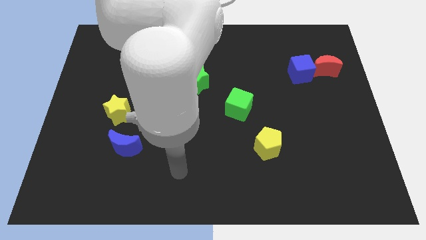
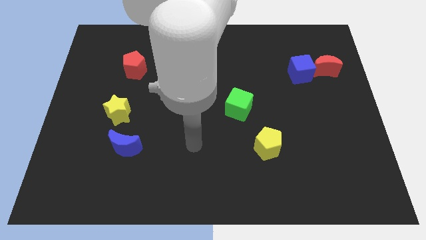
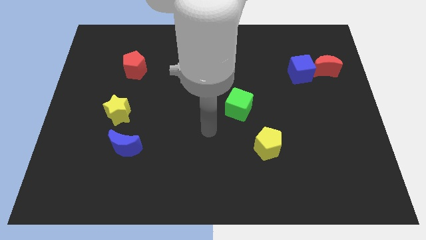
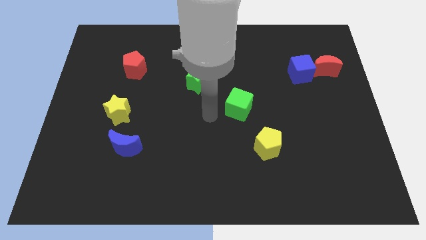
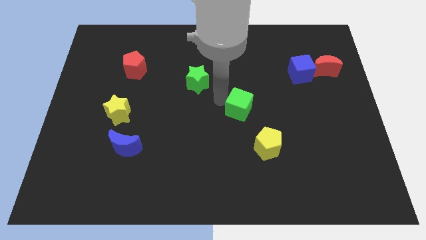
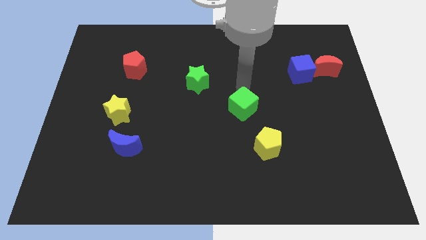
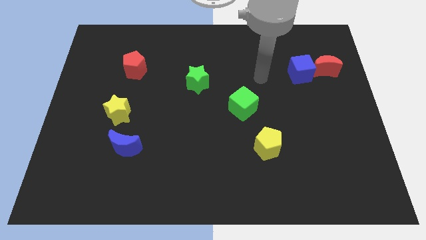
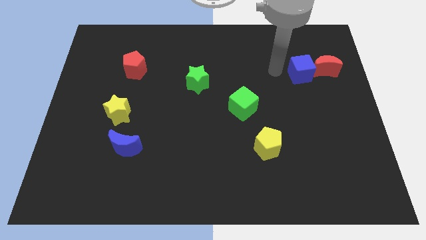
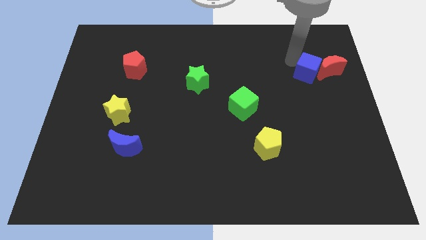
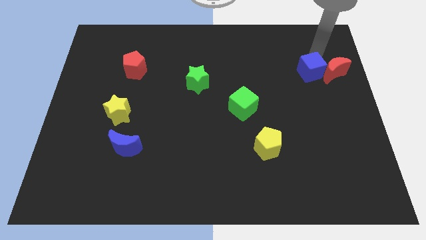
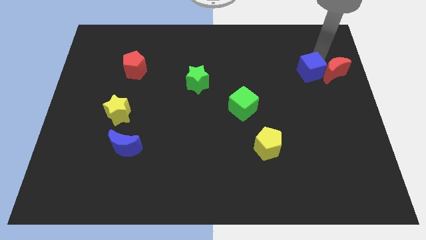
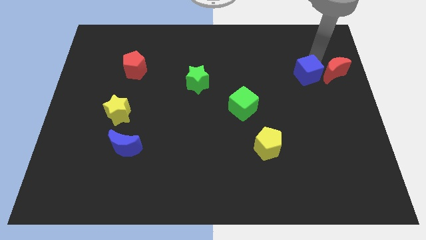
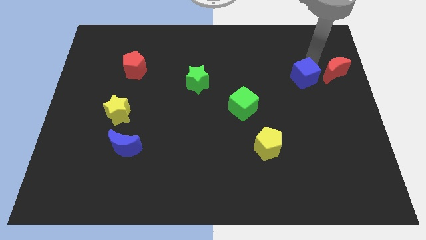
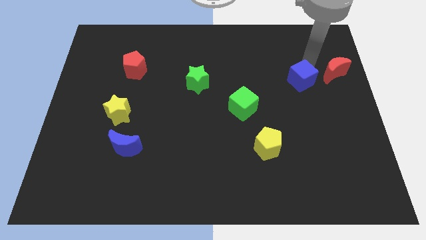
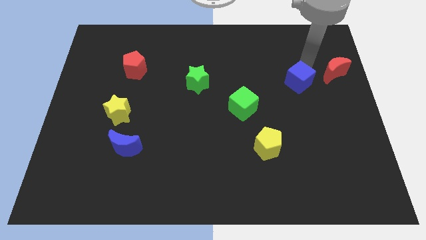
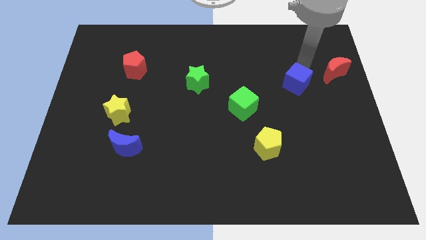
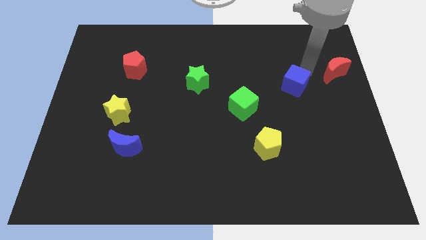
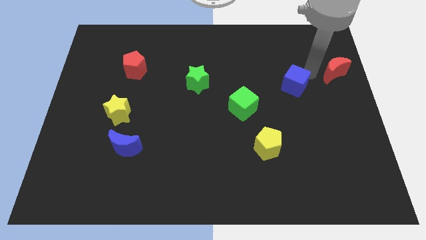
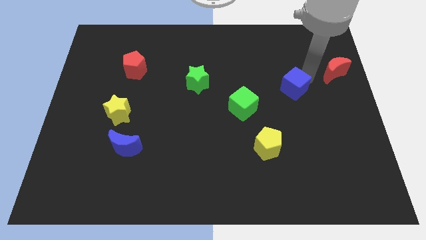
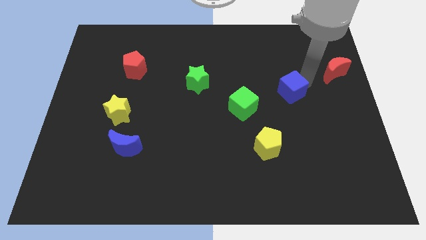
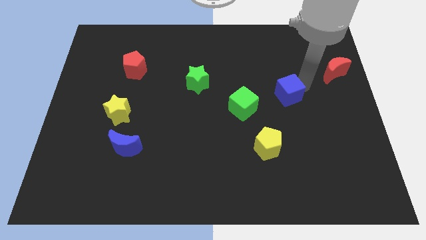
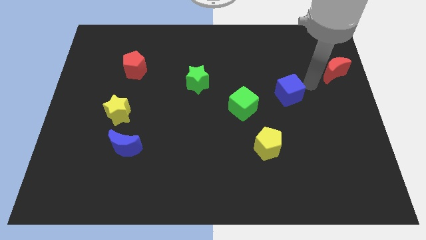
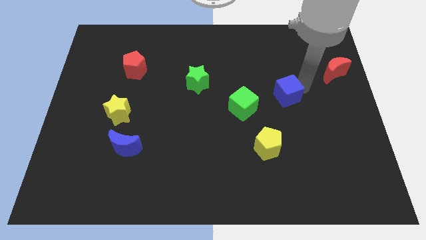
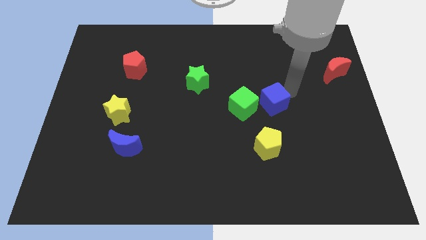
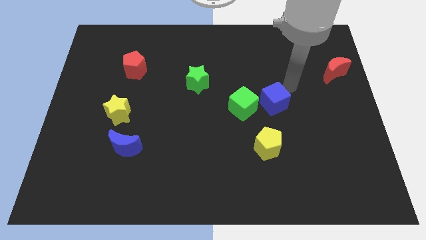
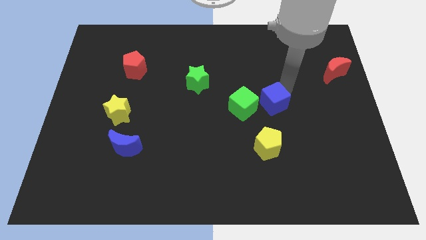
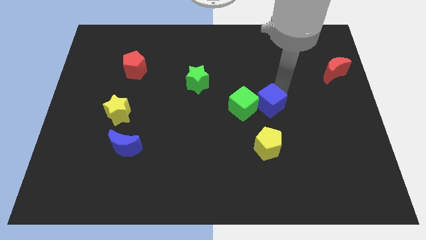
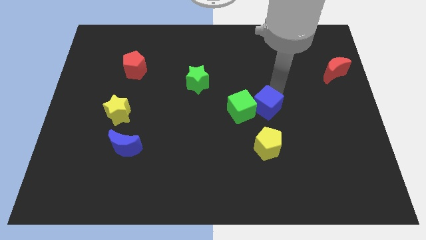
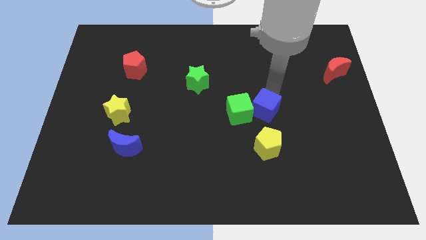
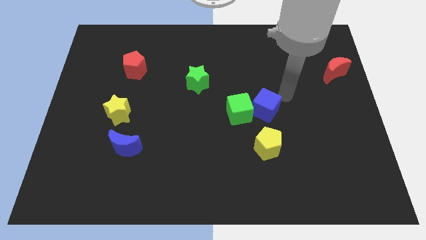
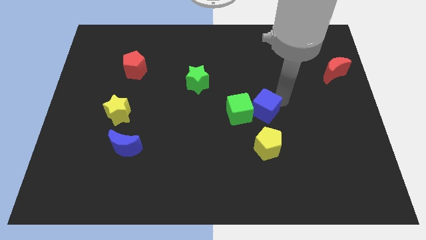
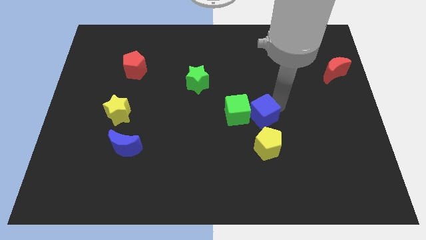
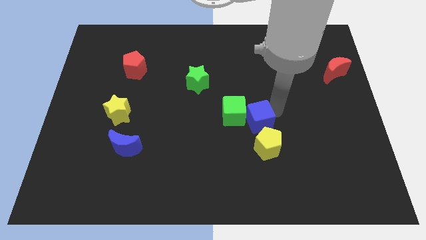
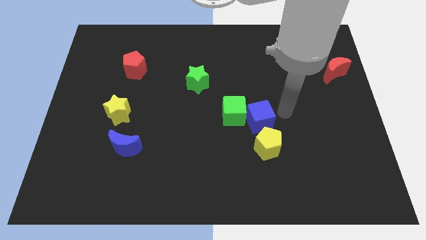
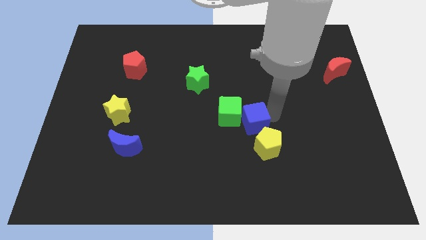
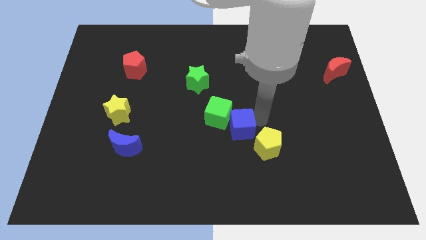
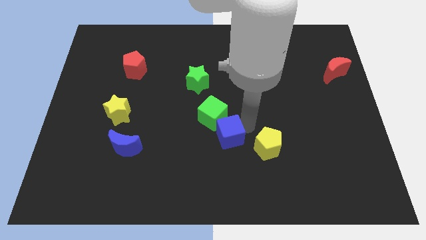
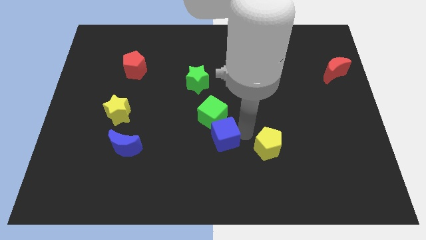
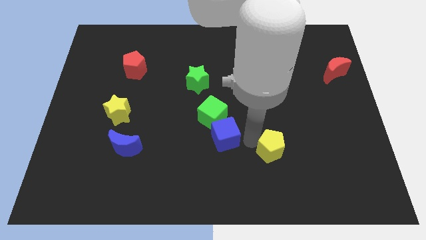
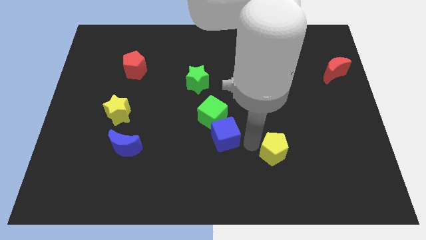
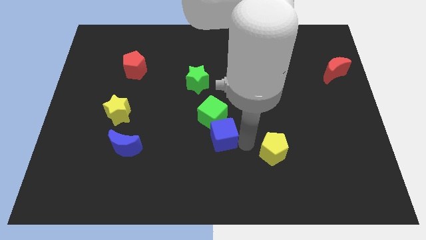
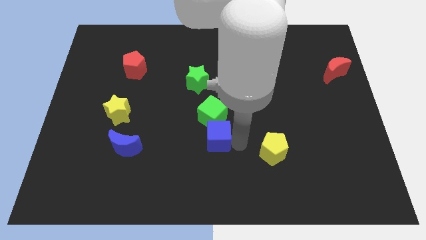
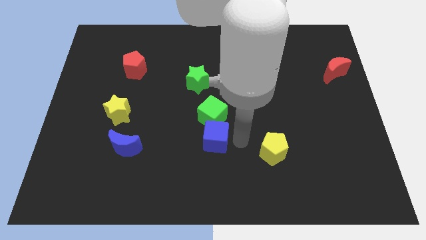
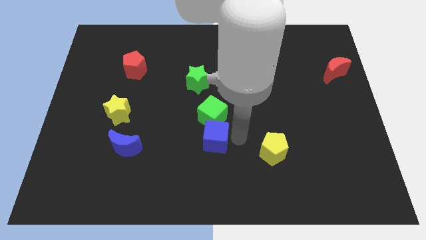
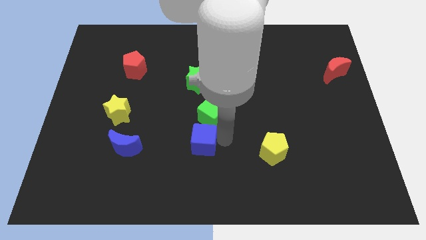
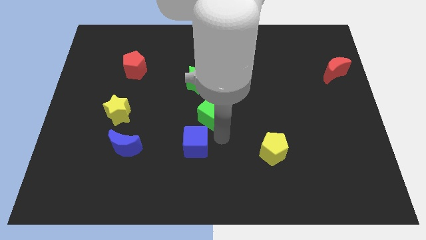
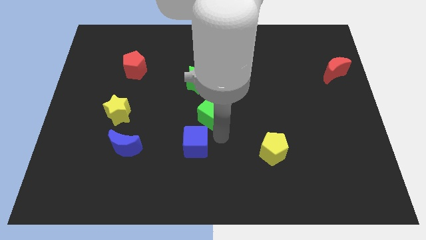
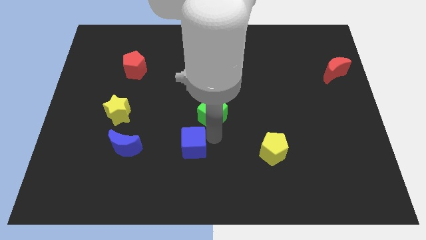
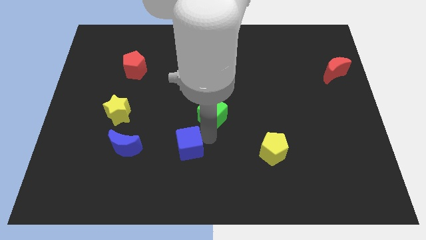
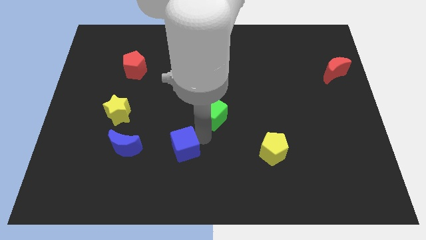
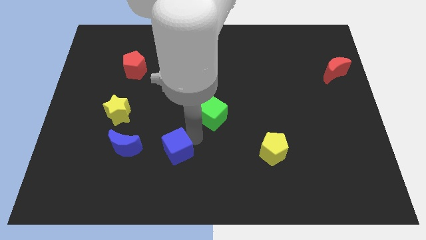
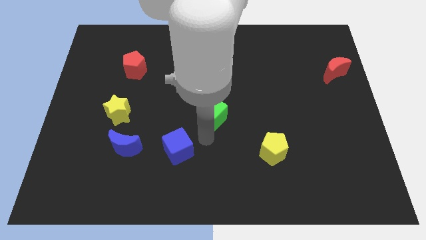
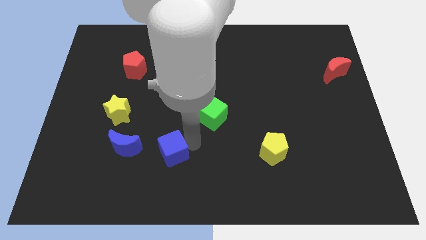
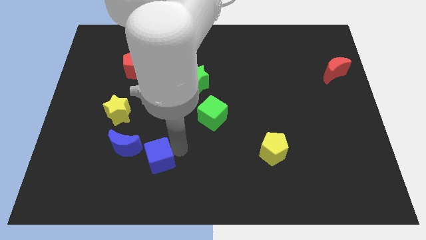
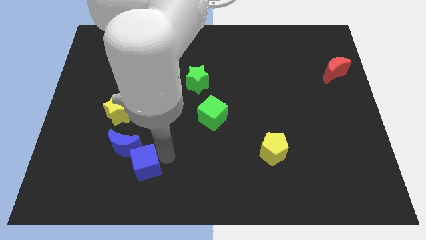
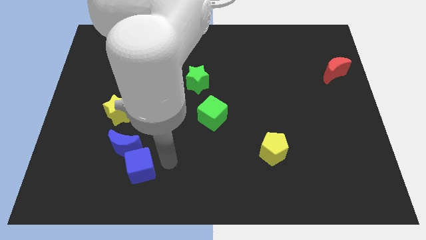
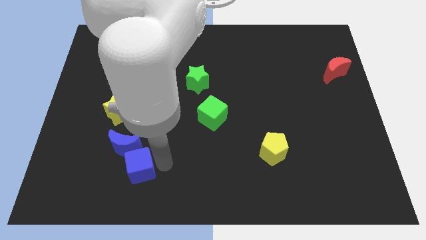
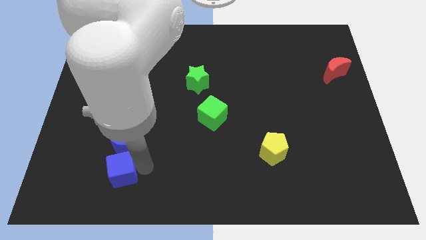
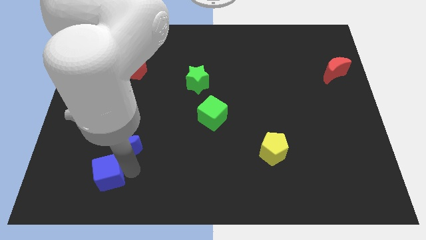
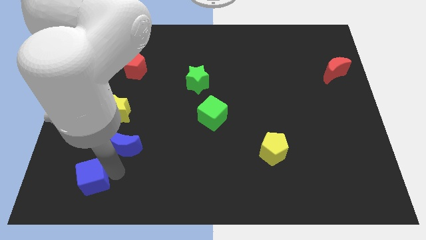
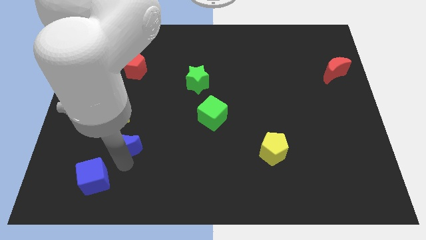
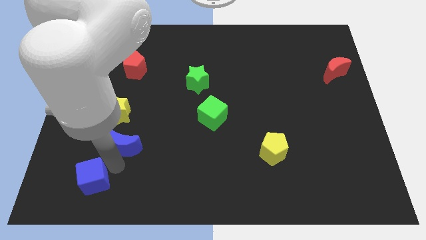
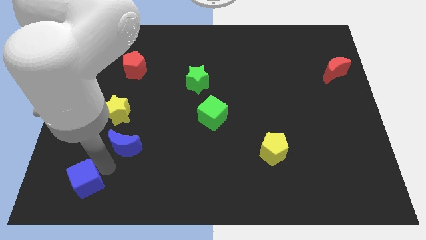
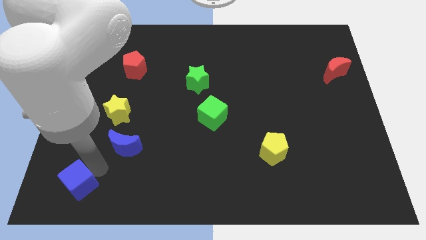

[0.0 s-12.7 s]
put the blue cube to the bottom left
